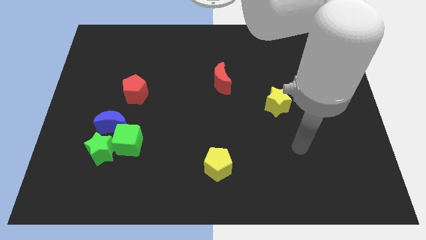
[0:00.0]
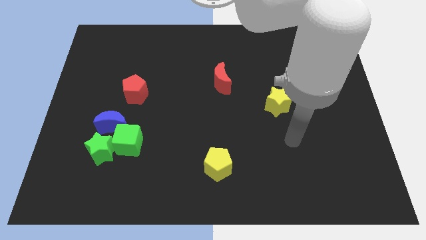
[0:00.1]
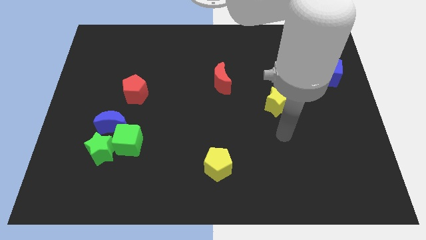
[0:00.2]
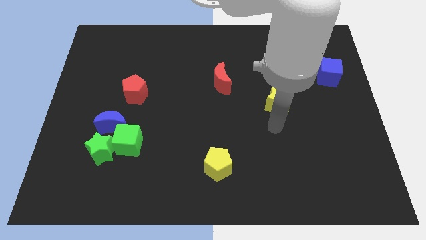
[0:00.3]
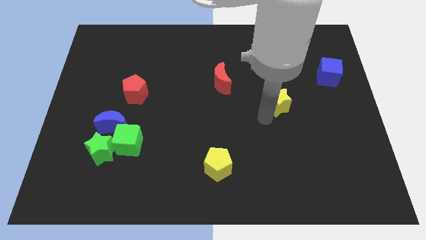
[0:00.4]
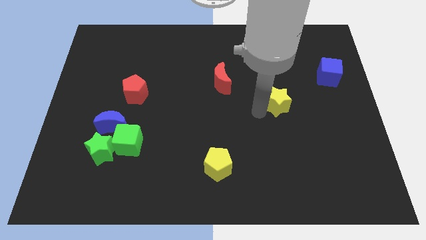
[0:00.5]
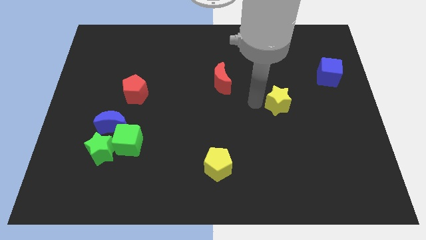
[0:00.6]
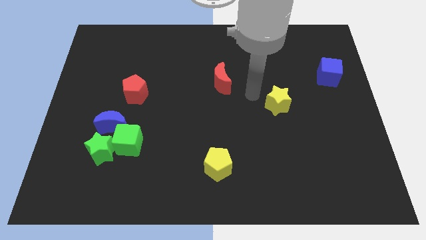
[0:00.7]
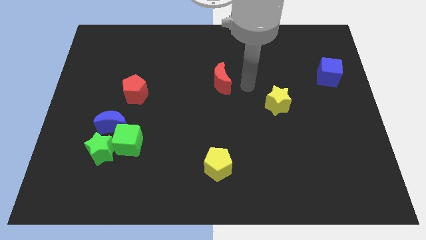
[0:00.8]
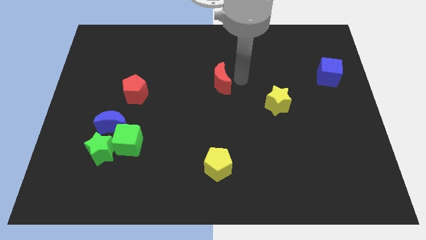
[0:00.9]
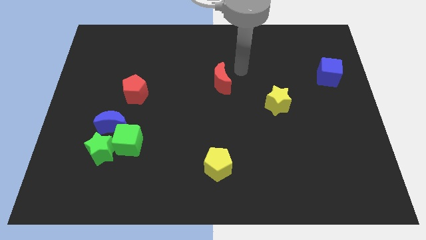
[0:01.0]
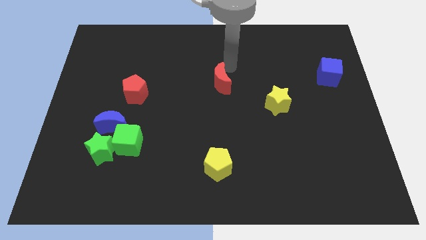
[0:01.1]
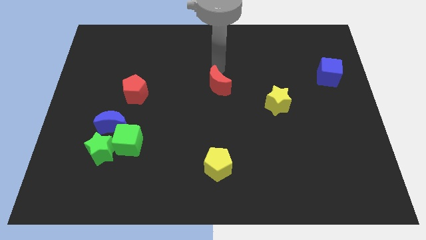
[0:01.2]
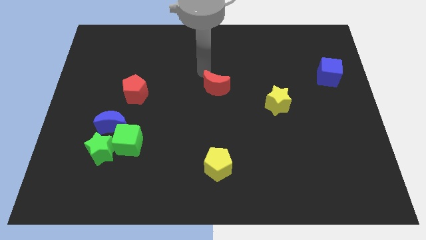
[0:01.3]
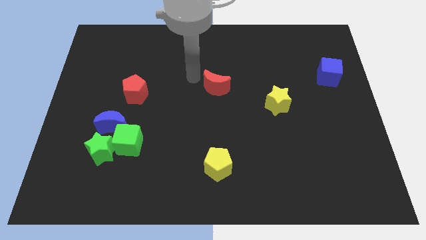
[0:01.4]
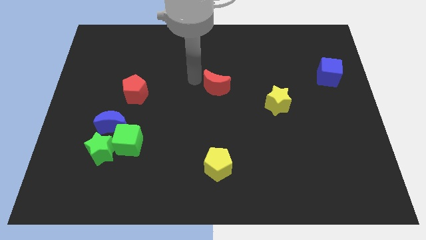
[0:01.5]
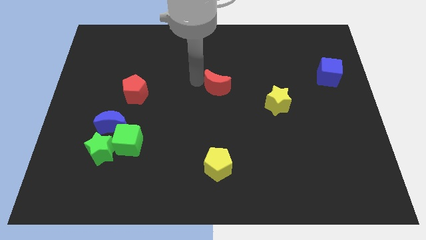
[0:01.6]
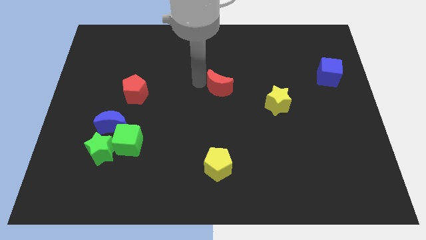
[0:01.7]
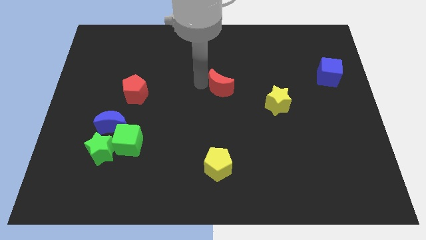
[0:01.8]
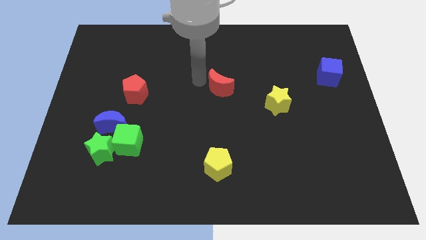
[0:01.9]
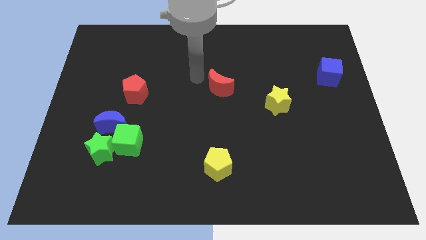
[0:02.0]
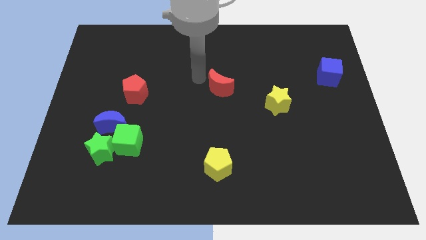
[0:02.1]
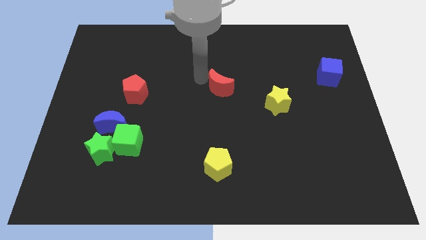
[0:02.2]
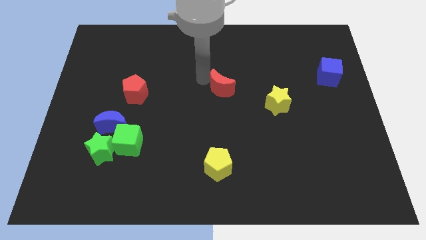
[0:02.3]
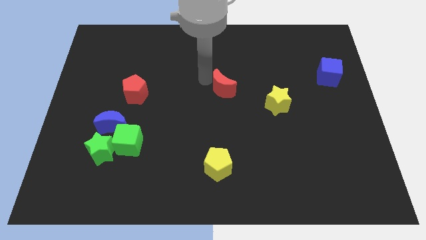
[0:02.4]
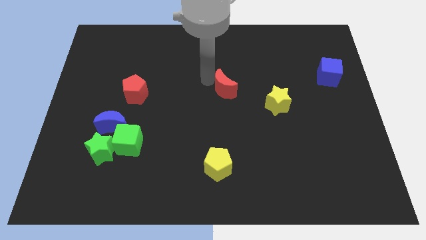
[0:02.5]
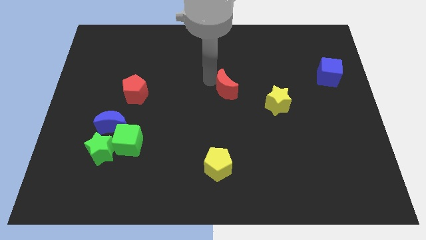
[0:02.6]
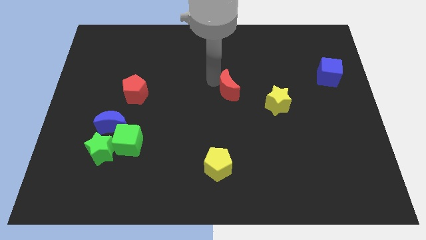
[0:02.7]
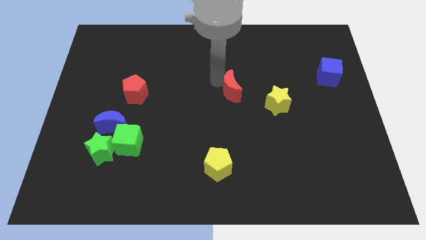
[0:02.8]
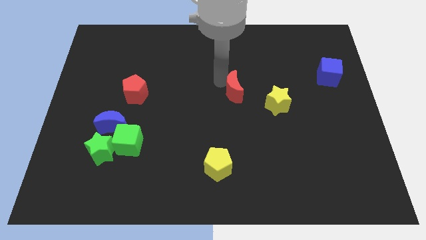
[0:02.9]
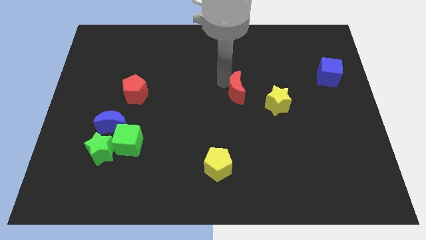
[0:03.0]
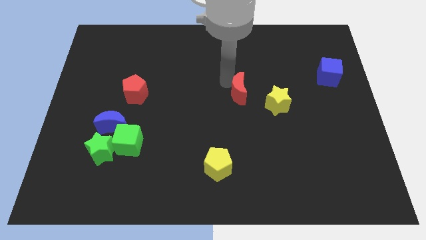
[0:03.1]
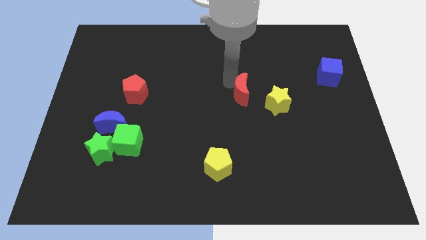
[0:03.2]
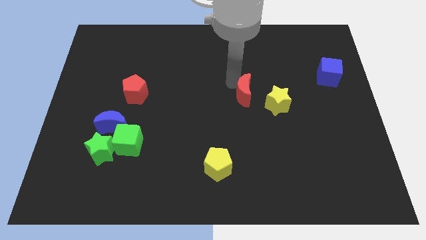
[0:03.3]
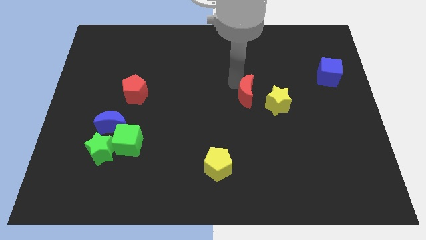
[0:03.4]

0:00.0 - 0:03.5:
slightly push the red moon diagonally down and to the right

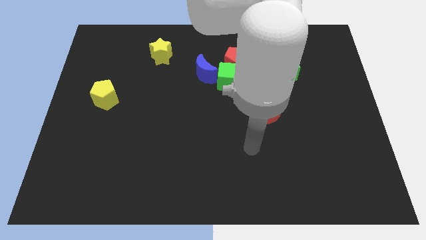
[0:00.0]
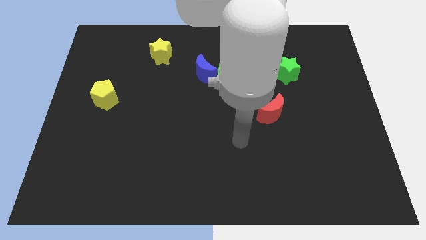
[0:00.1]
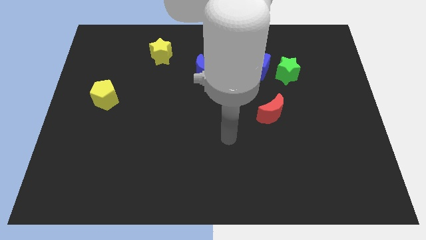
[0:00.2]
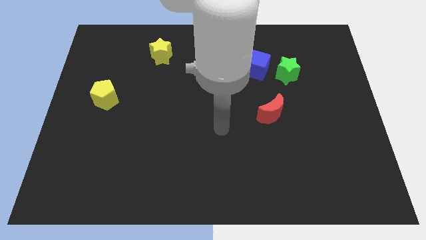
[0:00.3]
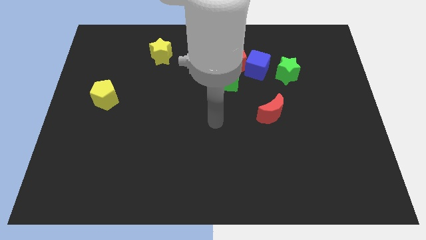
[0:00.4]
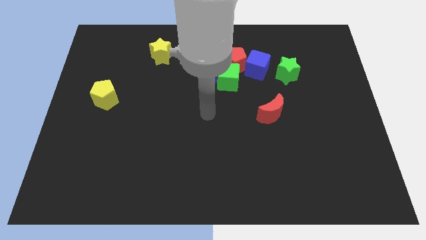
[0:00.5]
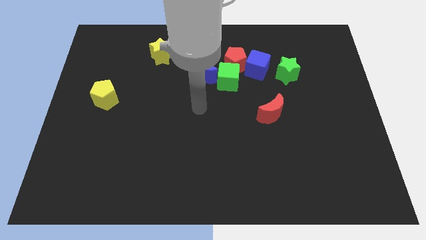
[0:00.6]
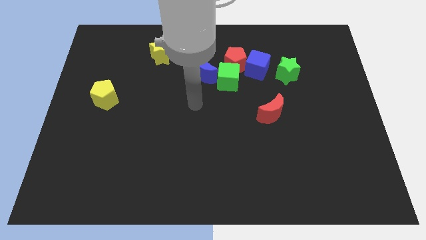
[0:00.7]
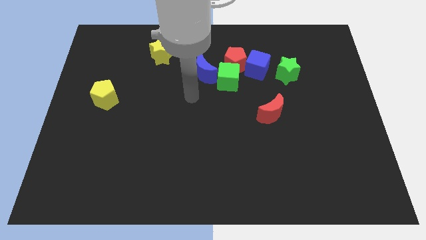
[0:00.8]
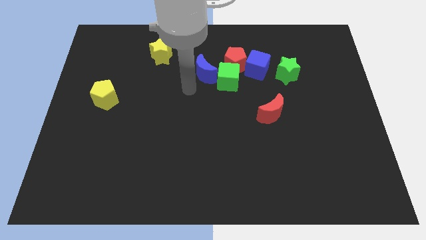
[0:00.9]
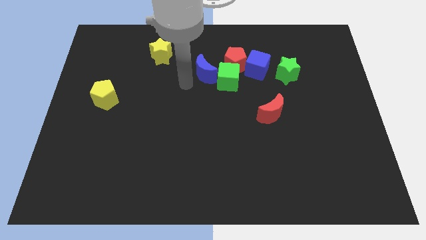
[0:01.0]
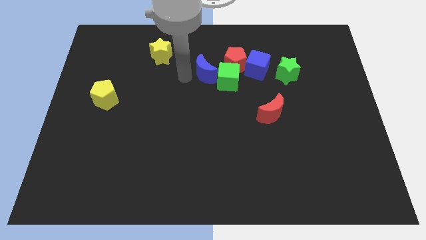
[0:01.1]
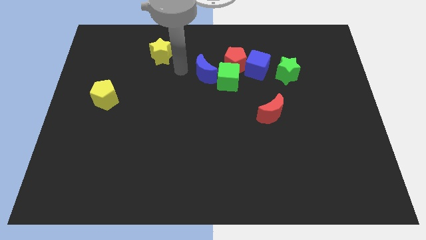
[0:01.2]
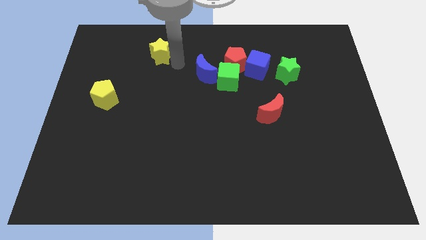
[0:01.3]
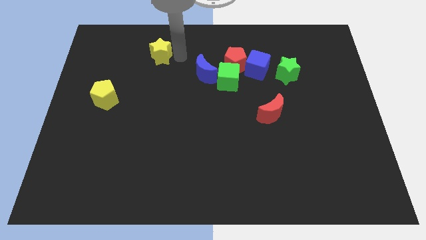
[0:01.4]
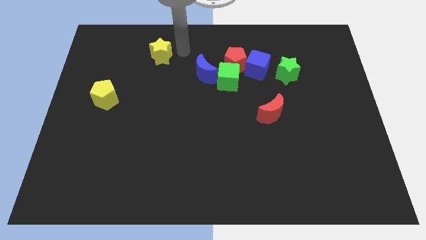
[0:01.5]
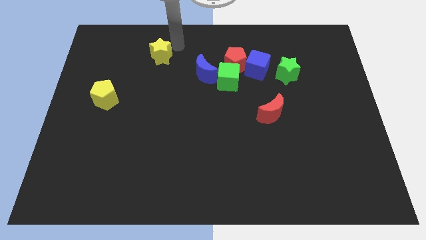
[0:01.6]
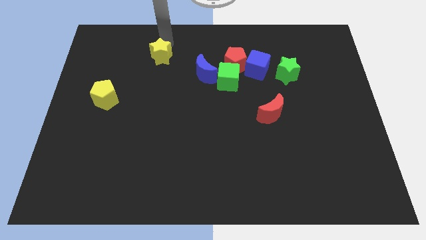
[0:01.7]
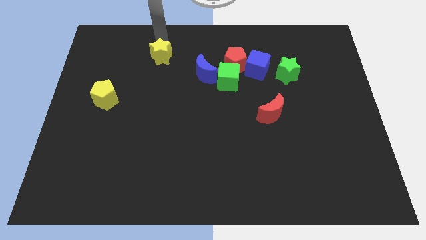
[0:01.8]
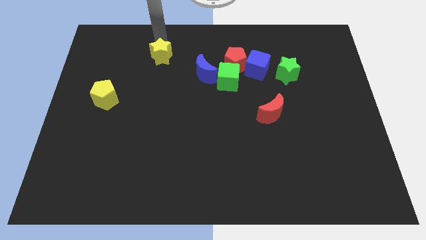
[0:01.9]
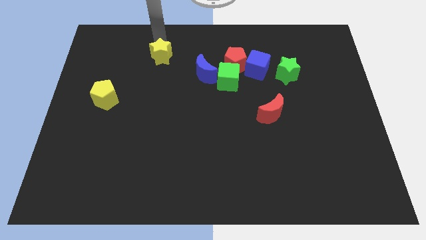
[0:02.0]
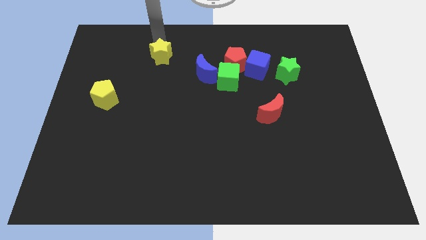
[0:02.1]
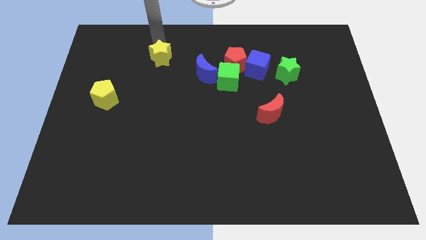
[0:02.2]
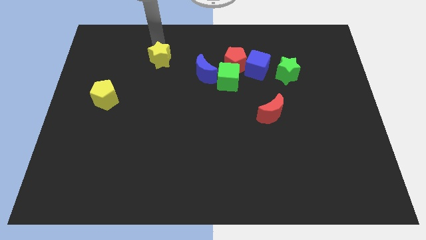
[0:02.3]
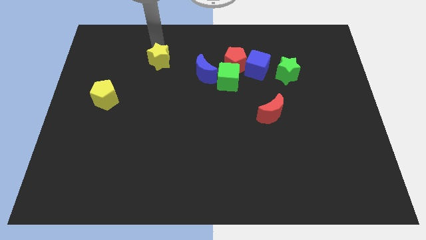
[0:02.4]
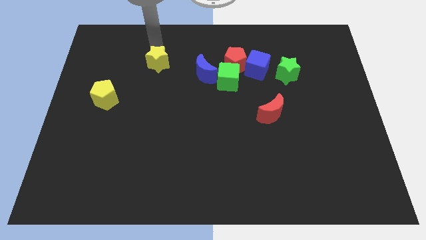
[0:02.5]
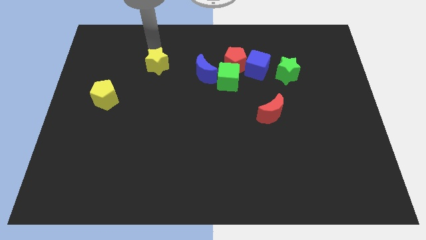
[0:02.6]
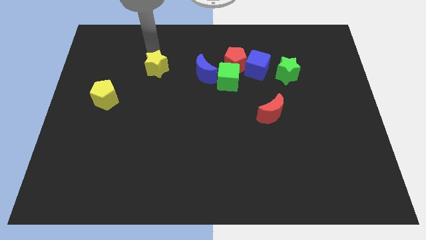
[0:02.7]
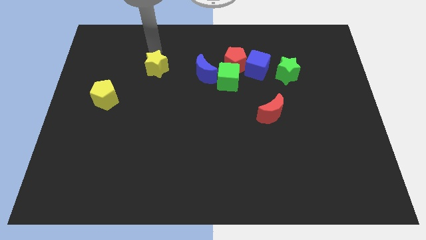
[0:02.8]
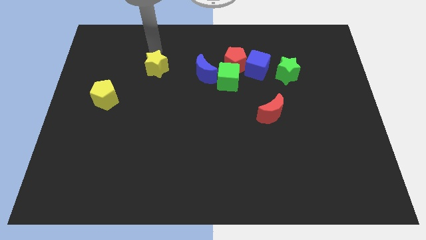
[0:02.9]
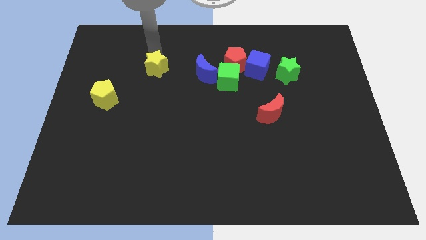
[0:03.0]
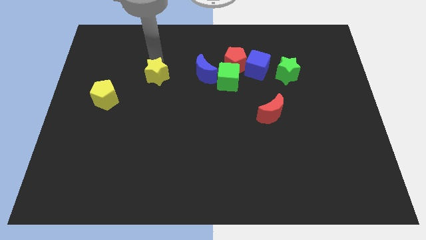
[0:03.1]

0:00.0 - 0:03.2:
slide the yellow star a bit downwards

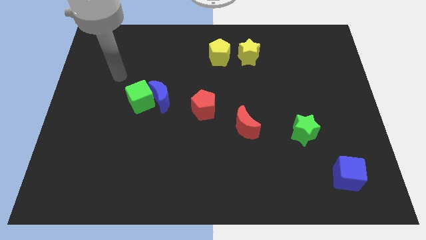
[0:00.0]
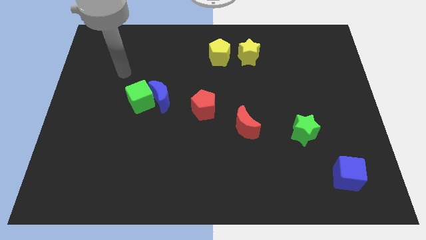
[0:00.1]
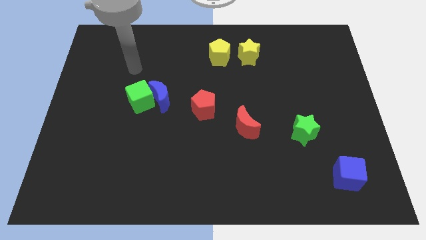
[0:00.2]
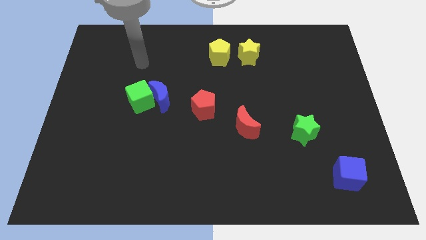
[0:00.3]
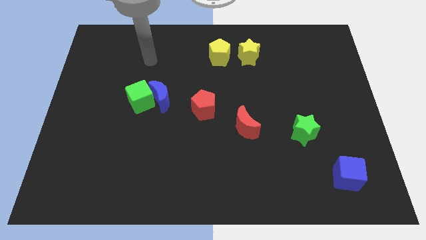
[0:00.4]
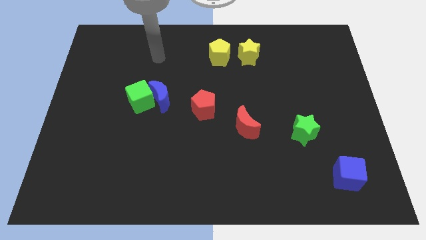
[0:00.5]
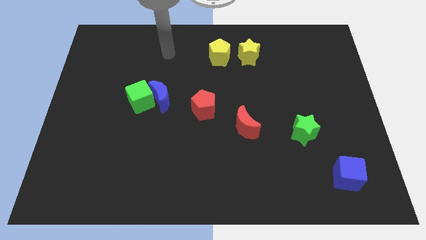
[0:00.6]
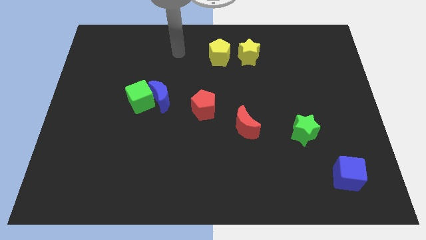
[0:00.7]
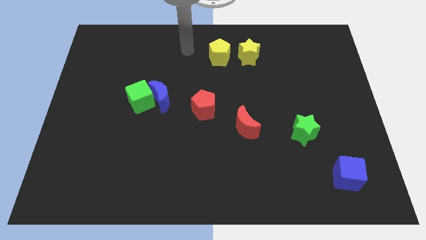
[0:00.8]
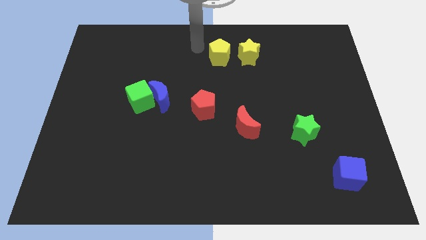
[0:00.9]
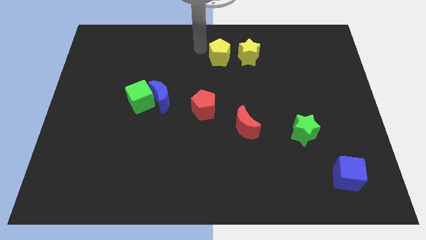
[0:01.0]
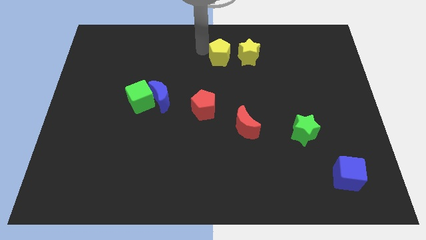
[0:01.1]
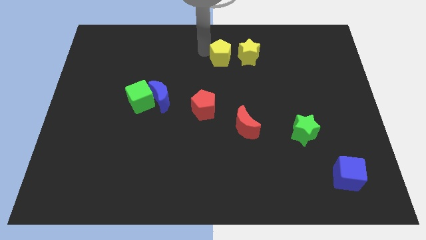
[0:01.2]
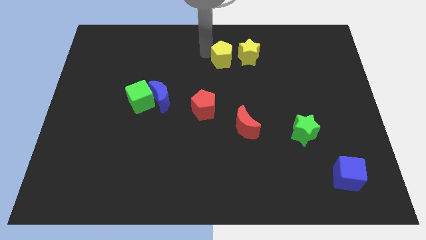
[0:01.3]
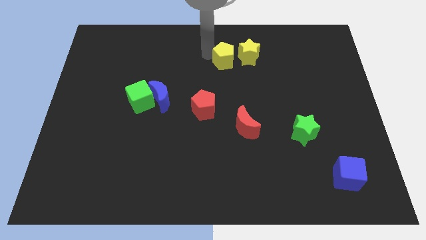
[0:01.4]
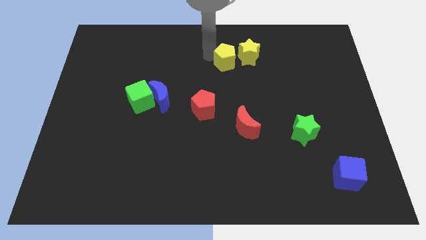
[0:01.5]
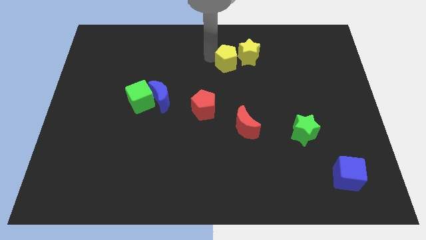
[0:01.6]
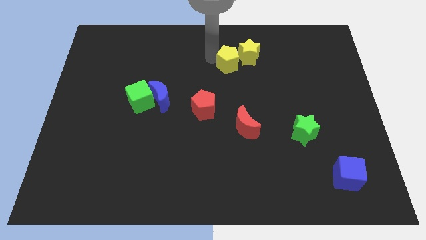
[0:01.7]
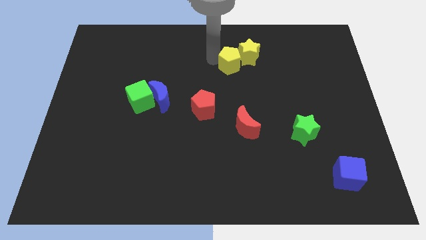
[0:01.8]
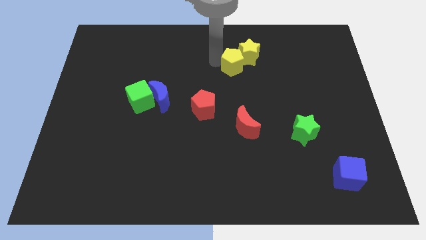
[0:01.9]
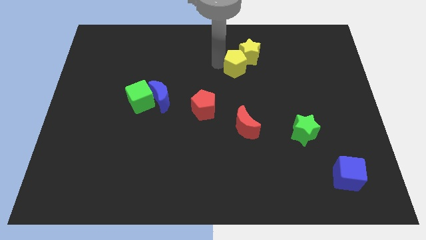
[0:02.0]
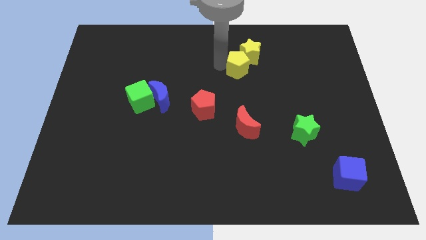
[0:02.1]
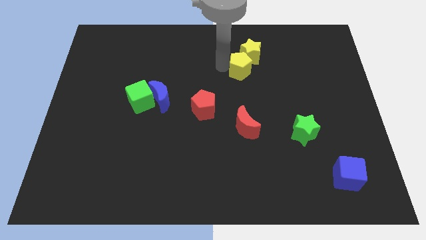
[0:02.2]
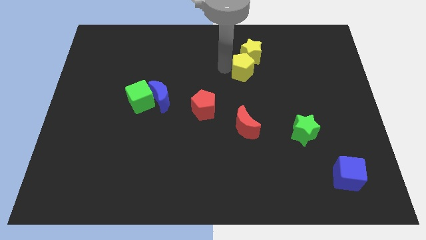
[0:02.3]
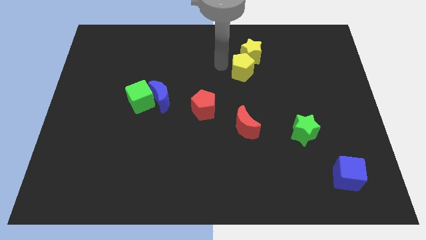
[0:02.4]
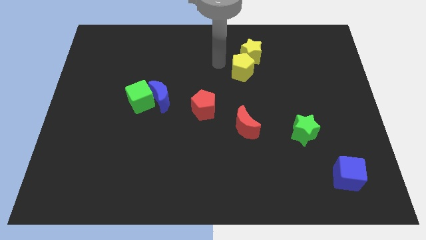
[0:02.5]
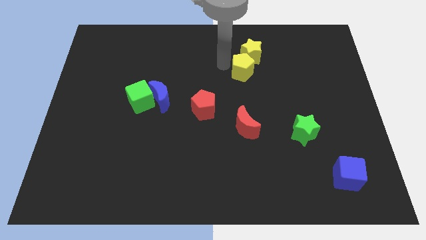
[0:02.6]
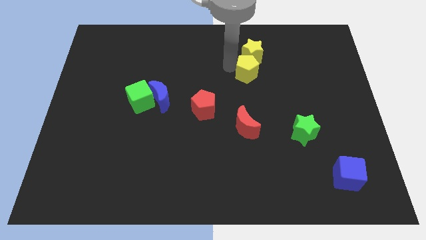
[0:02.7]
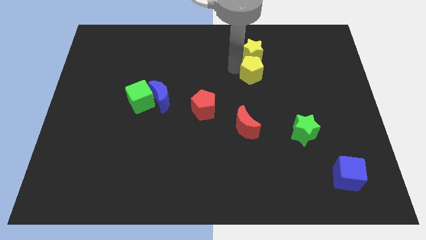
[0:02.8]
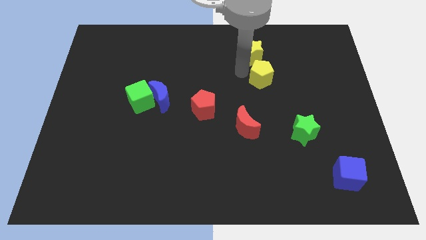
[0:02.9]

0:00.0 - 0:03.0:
push the yellow pentagon to the right a little
